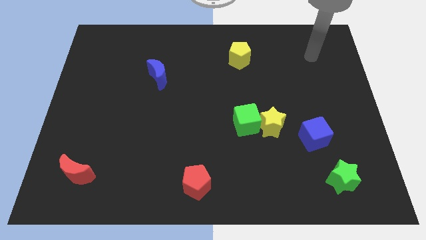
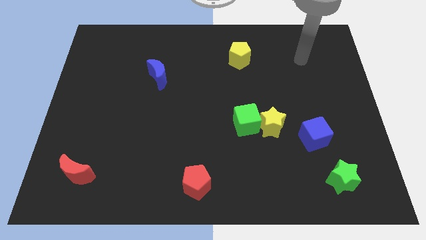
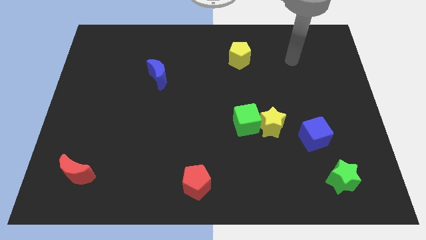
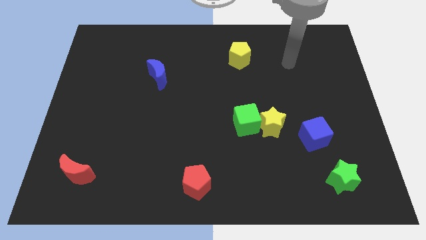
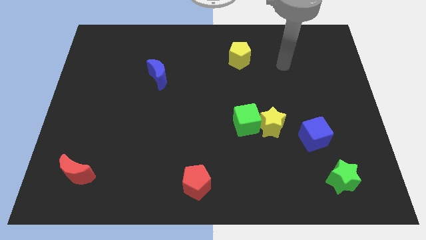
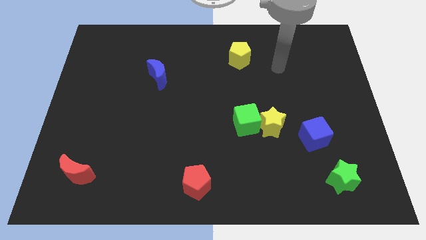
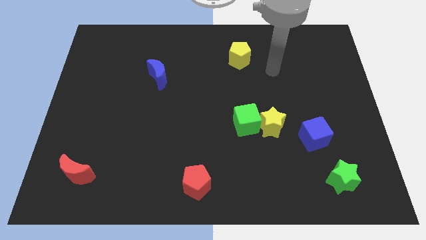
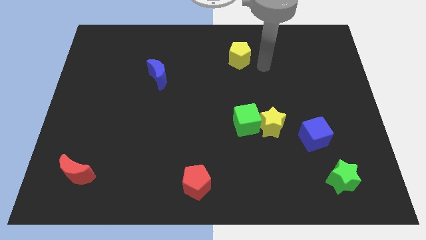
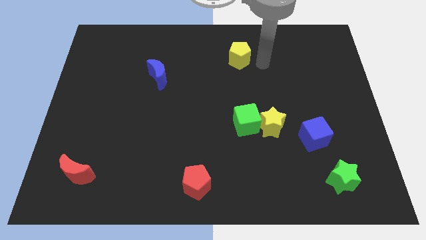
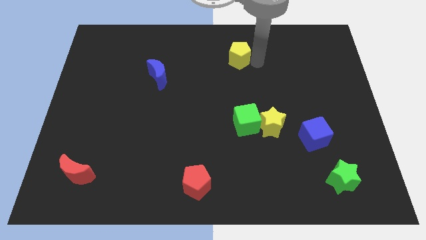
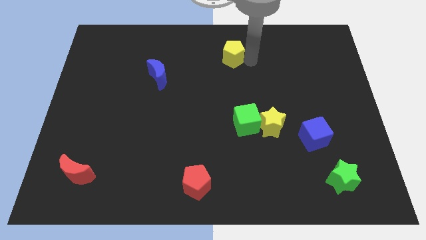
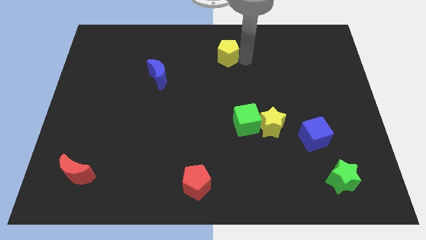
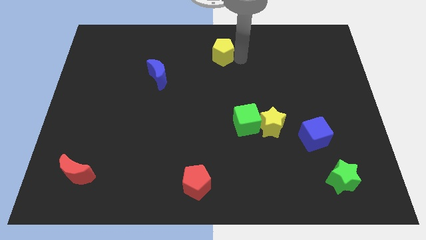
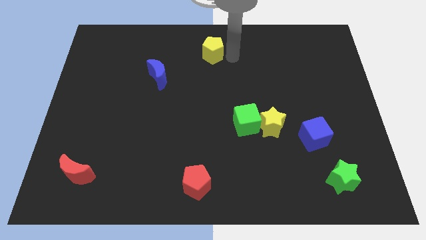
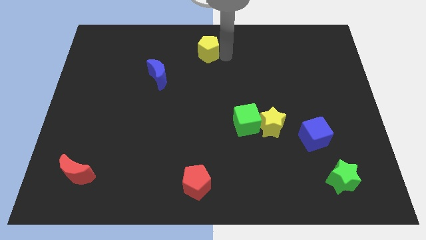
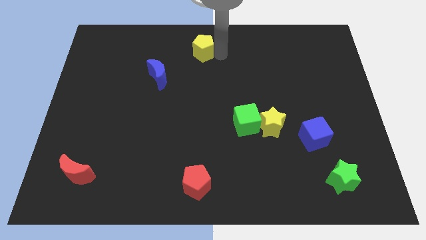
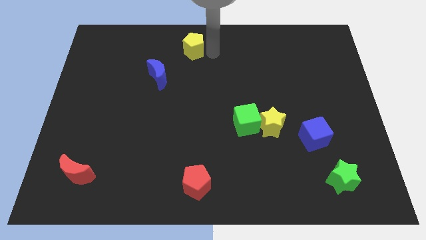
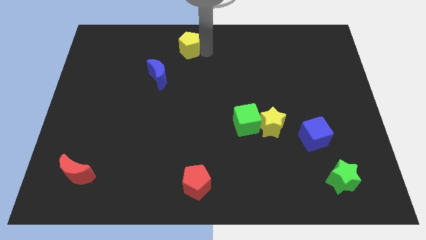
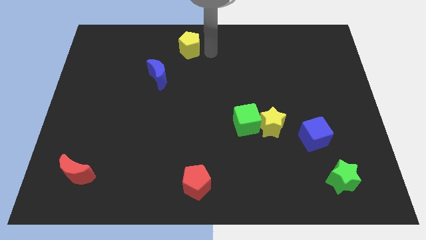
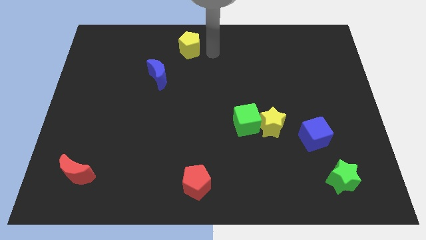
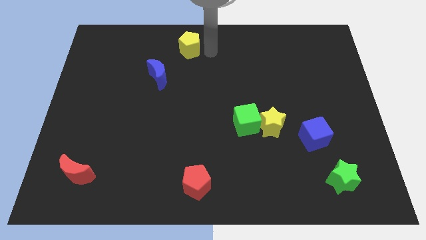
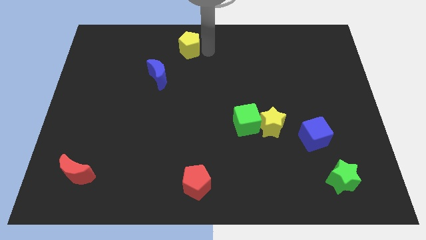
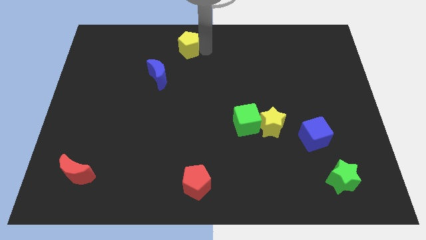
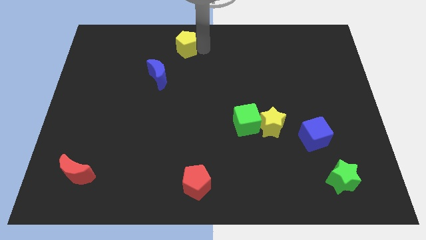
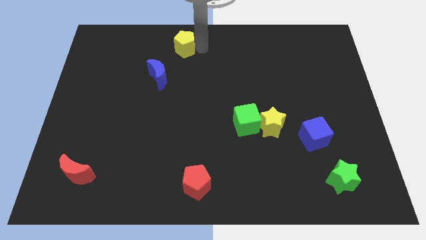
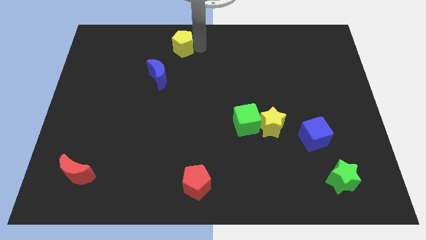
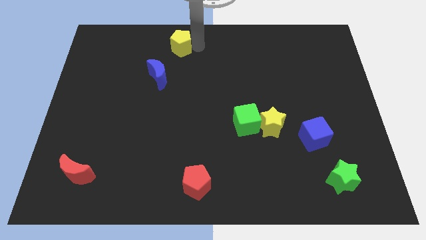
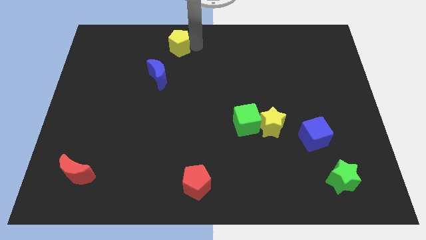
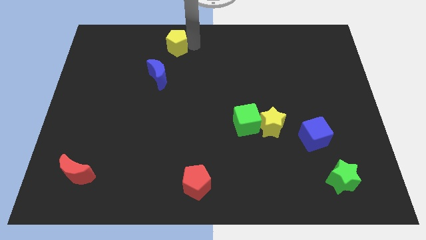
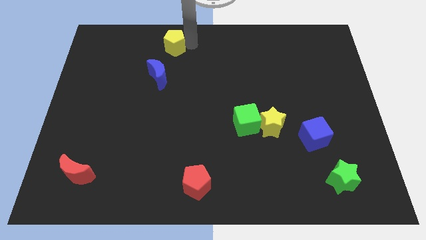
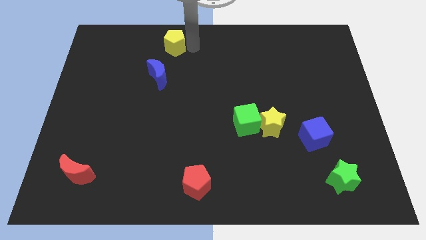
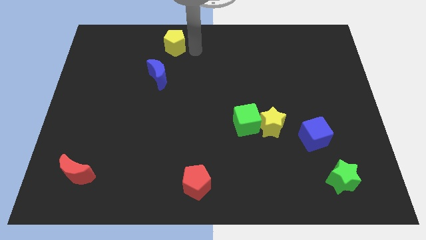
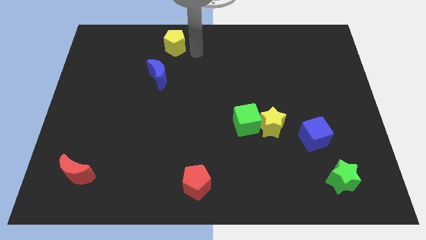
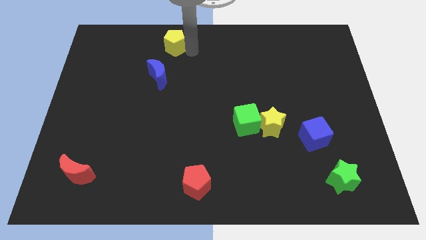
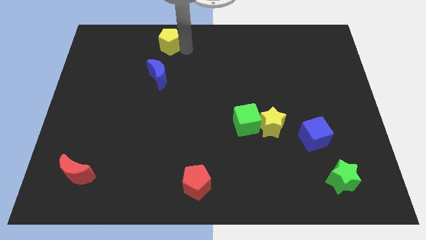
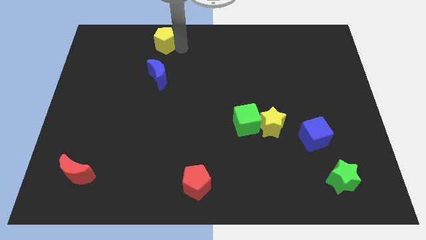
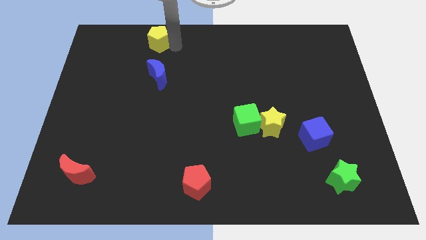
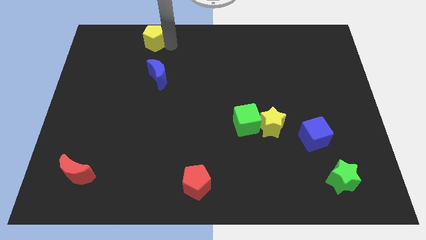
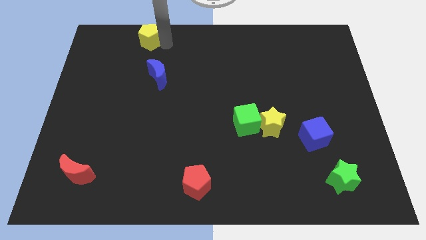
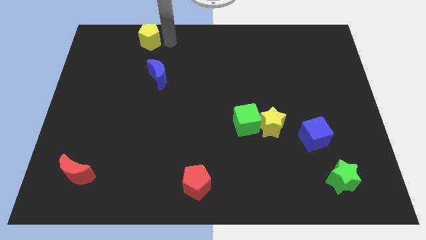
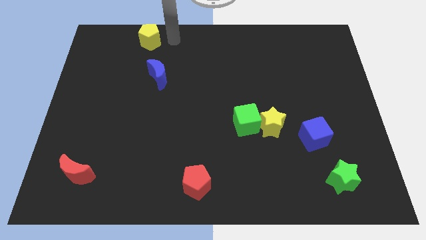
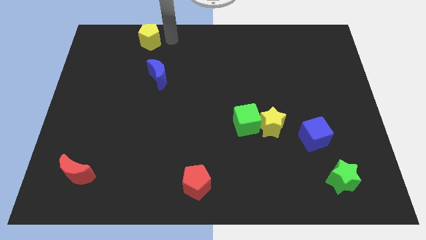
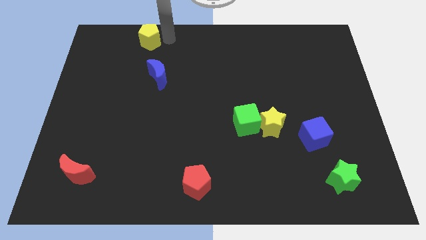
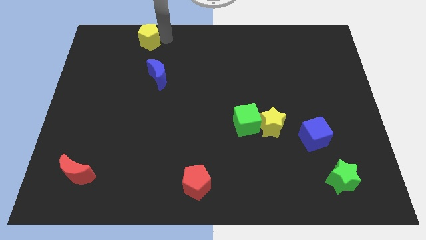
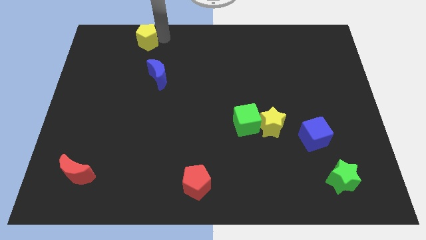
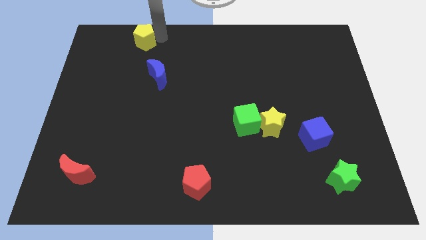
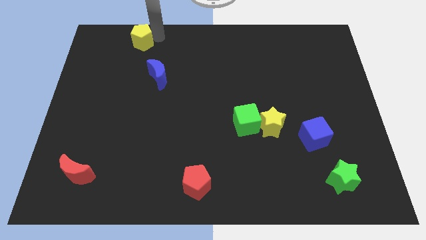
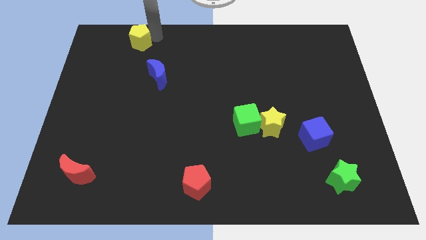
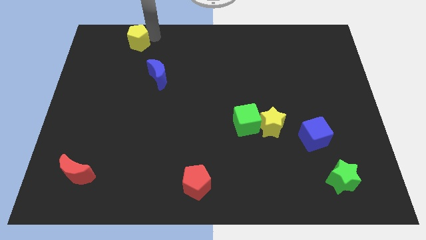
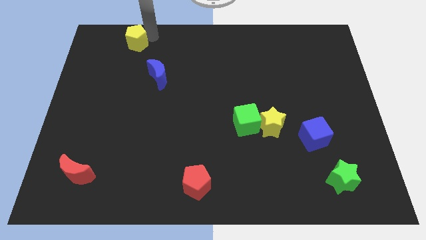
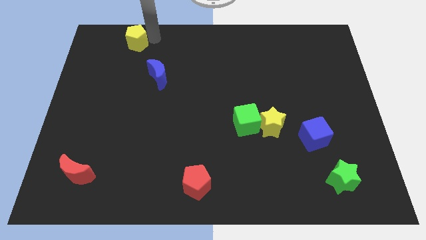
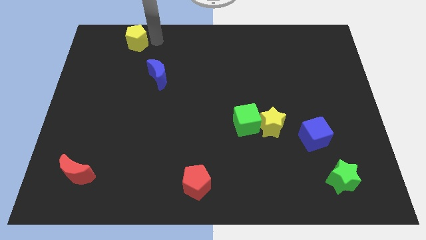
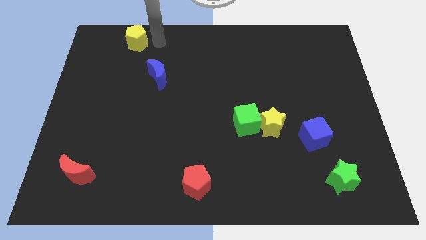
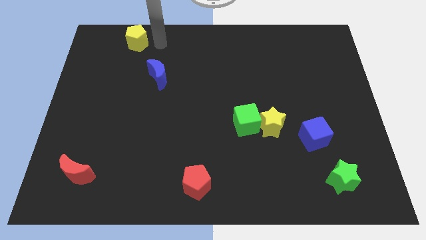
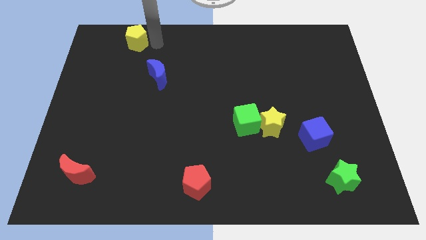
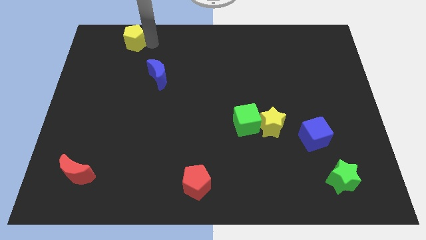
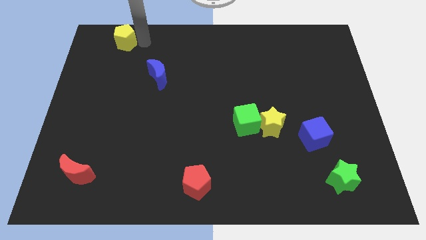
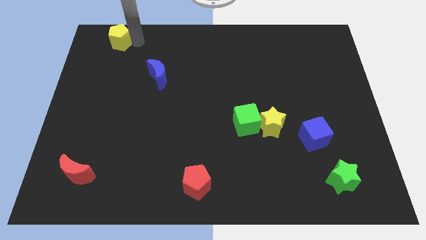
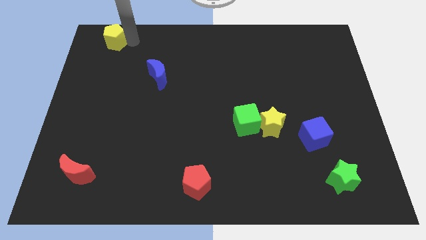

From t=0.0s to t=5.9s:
move the yellow pentagon to the top left corner
